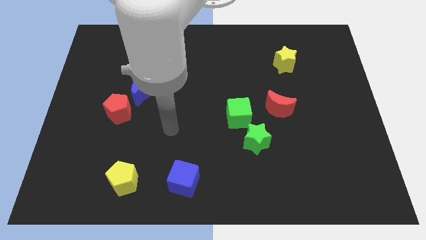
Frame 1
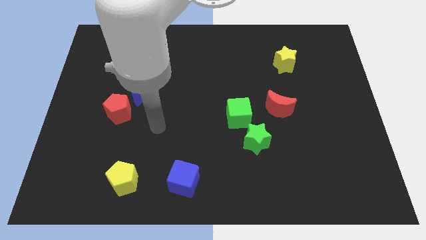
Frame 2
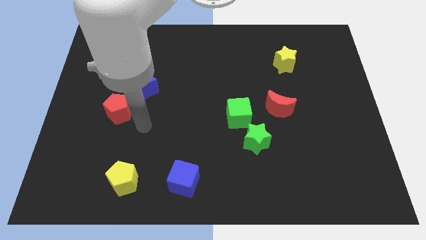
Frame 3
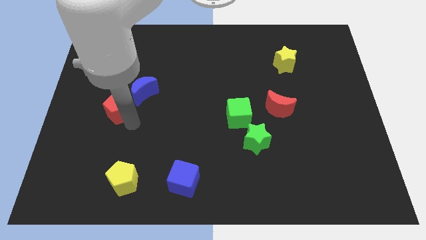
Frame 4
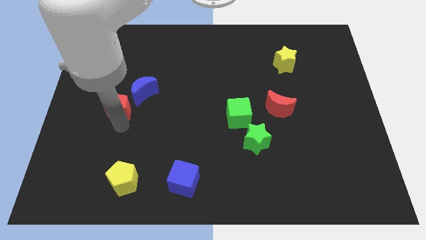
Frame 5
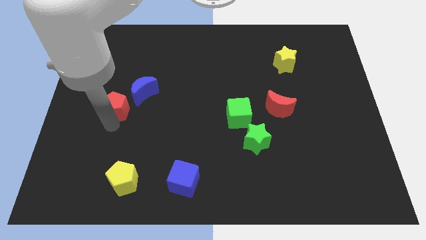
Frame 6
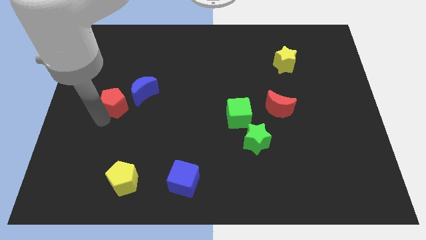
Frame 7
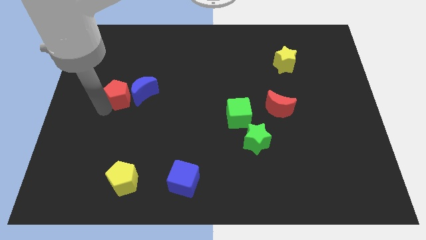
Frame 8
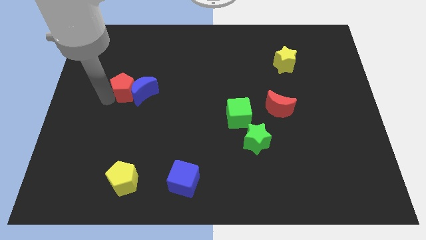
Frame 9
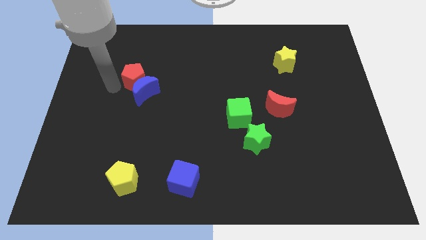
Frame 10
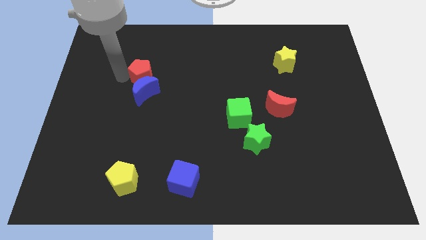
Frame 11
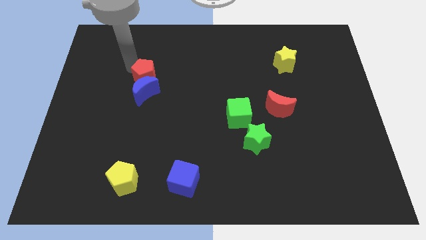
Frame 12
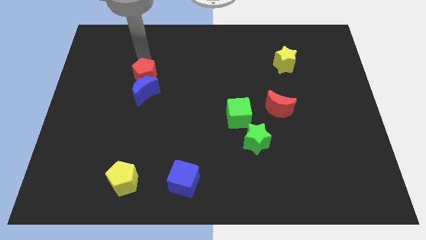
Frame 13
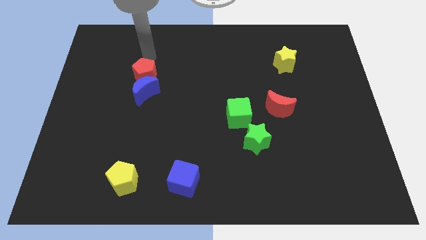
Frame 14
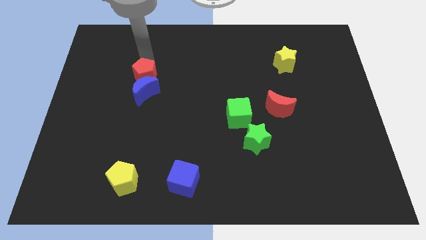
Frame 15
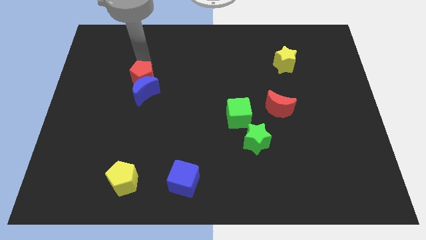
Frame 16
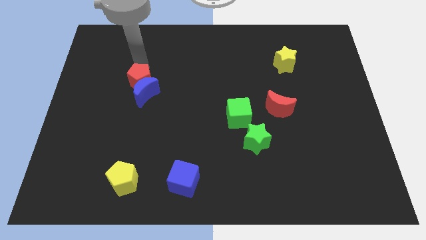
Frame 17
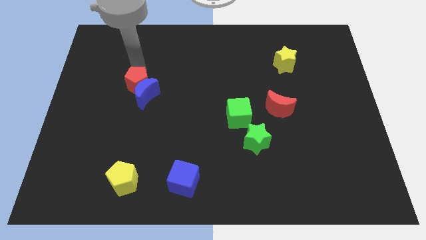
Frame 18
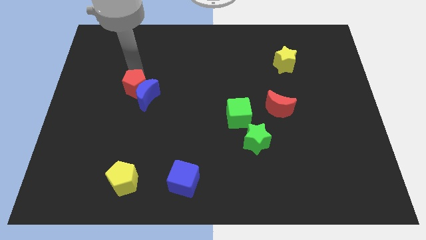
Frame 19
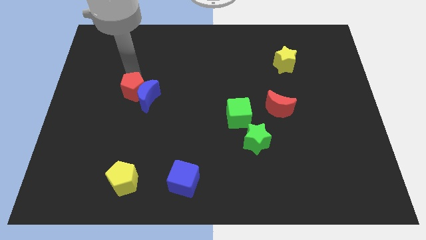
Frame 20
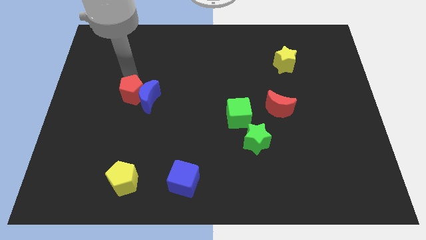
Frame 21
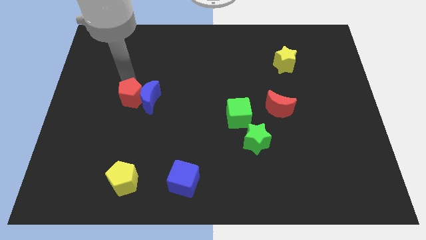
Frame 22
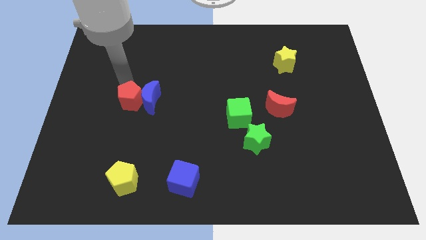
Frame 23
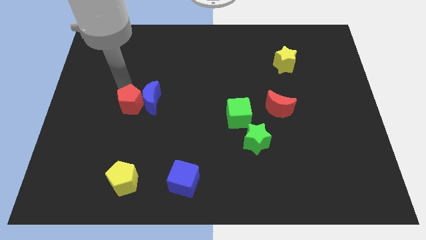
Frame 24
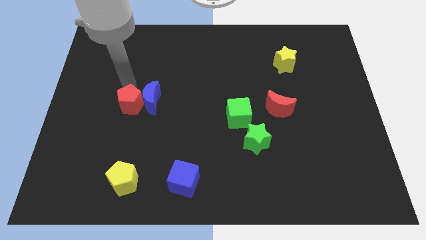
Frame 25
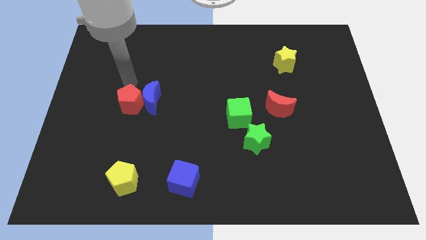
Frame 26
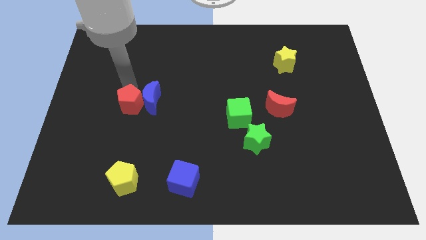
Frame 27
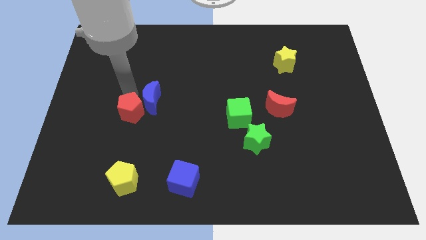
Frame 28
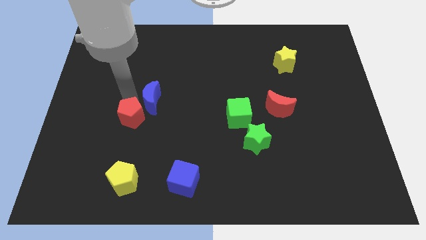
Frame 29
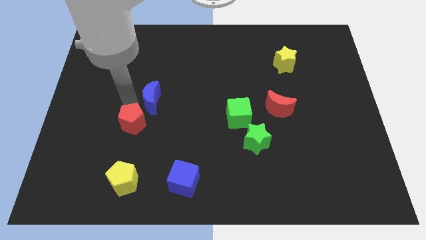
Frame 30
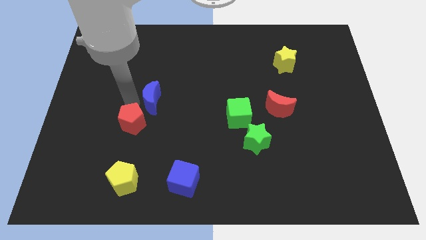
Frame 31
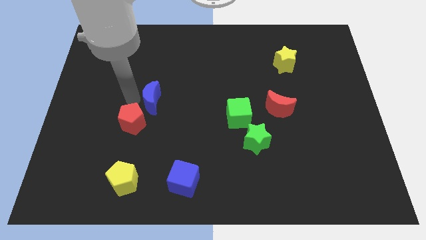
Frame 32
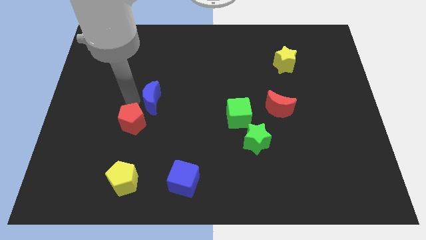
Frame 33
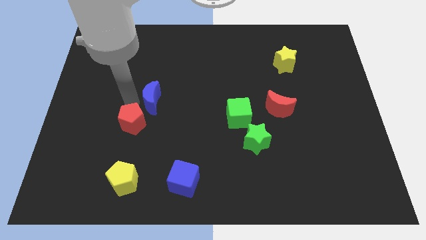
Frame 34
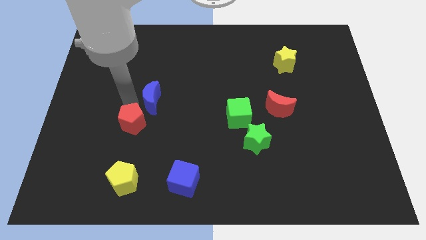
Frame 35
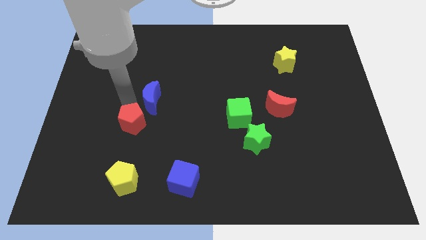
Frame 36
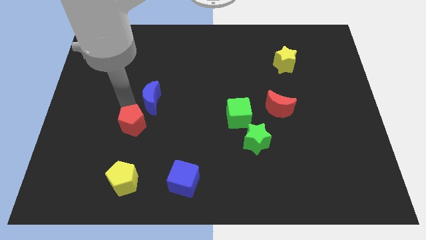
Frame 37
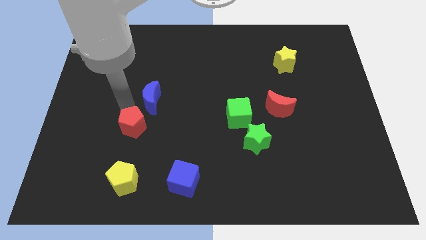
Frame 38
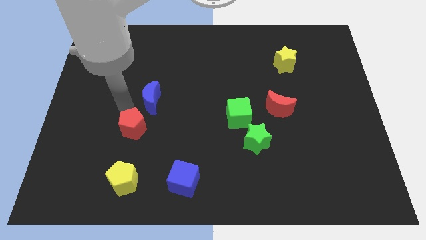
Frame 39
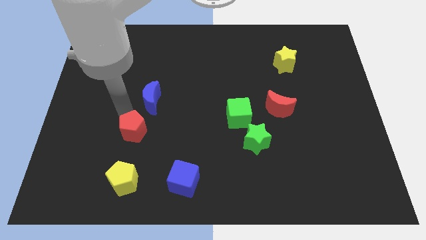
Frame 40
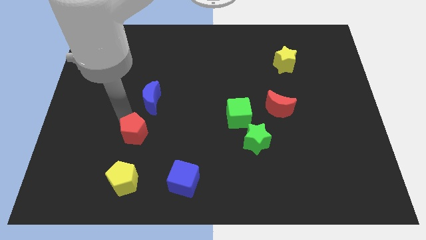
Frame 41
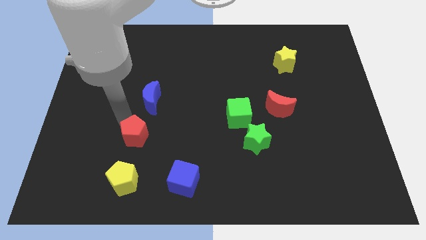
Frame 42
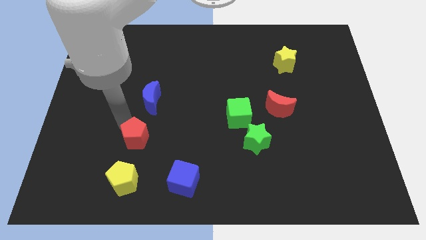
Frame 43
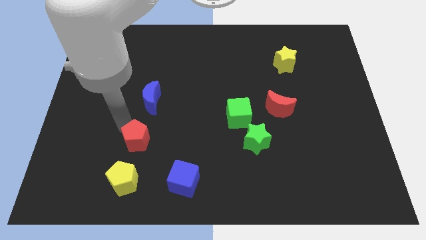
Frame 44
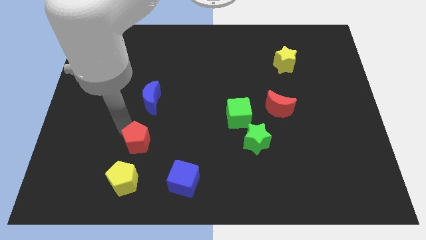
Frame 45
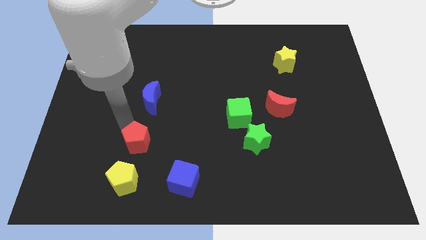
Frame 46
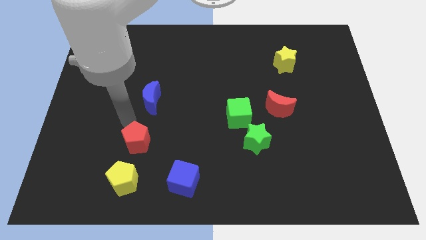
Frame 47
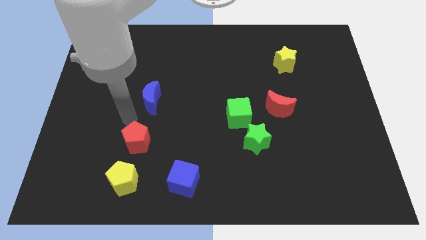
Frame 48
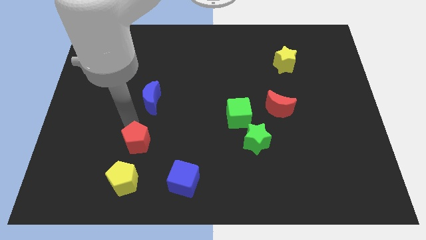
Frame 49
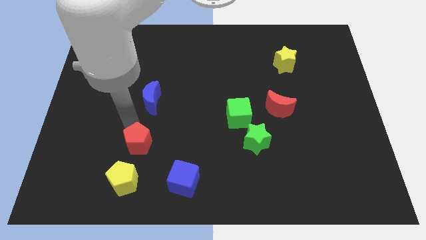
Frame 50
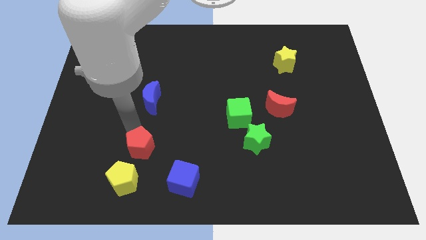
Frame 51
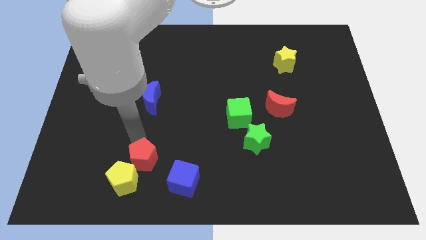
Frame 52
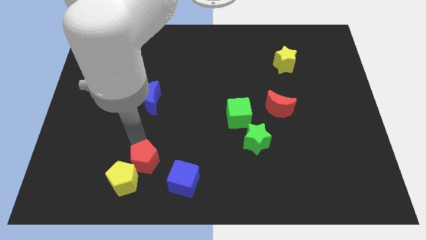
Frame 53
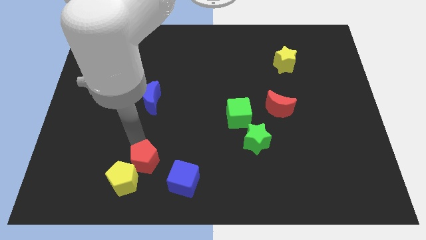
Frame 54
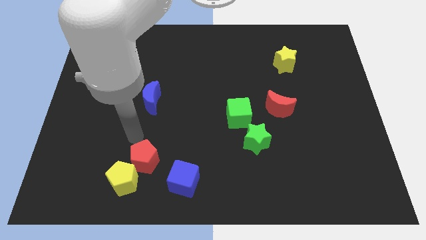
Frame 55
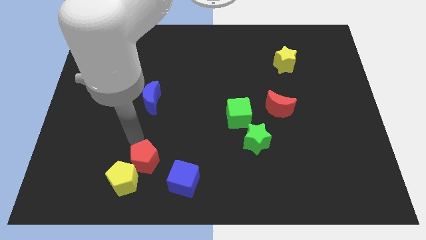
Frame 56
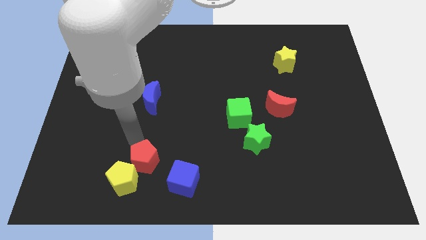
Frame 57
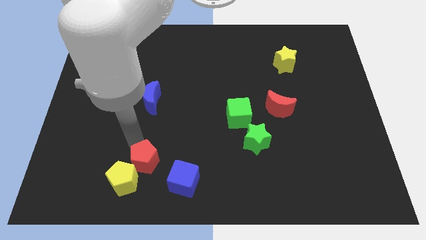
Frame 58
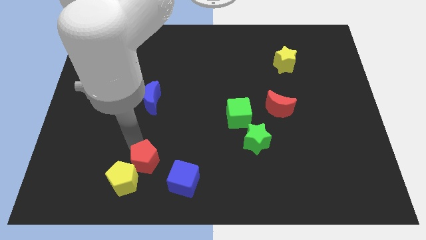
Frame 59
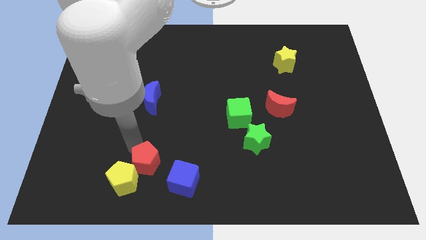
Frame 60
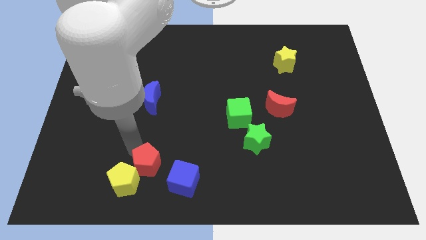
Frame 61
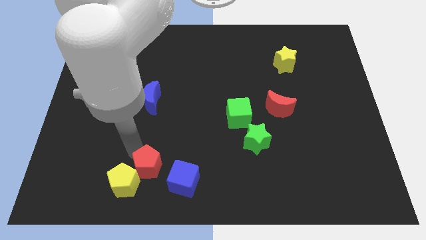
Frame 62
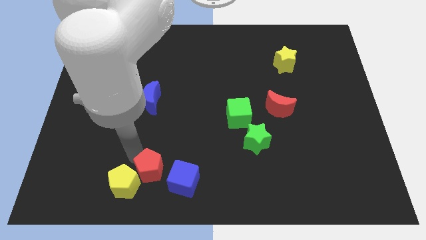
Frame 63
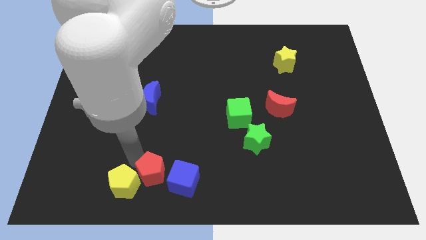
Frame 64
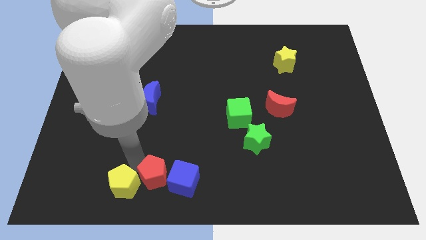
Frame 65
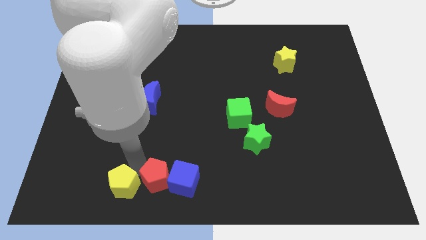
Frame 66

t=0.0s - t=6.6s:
move the red pentagon to the bottom side
